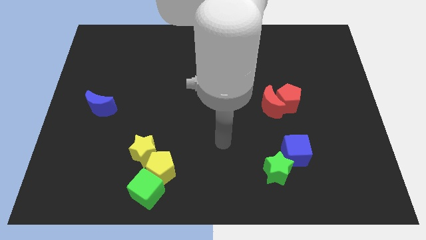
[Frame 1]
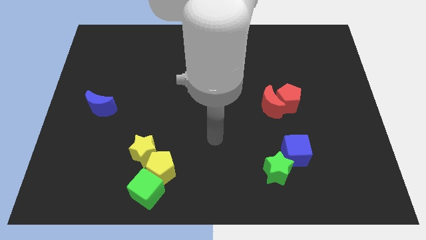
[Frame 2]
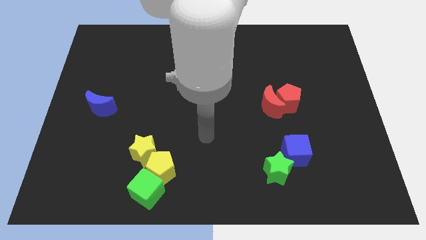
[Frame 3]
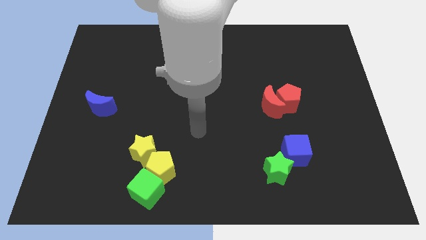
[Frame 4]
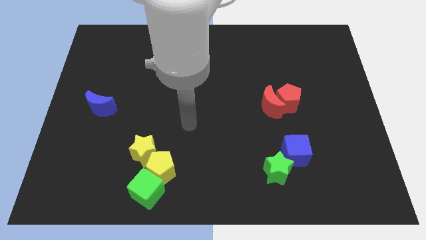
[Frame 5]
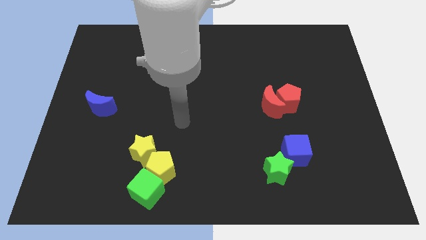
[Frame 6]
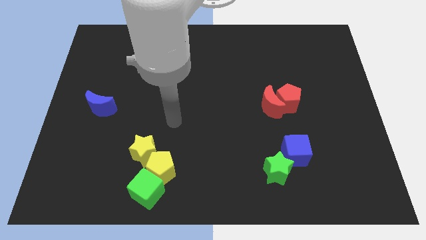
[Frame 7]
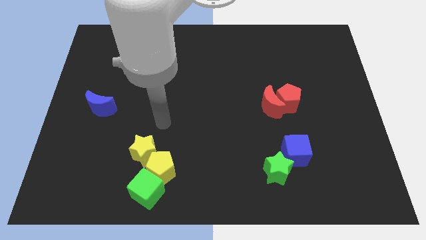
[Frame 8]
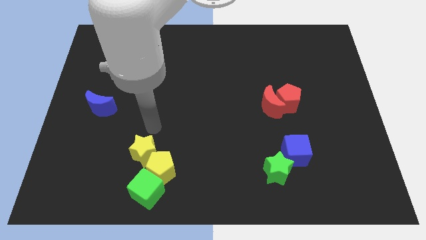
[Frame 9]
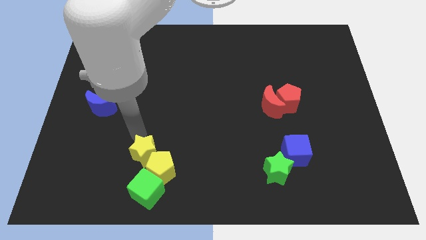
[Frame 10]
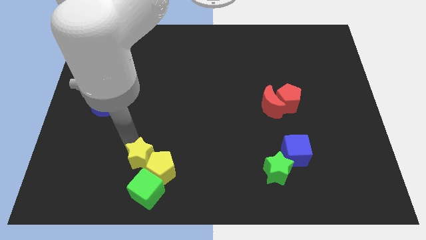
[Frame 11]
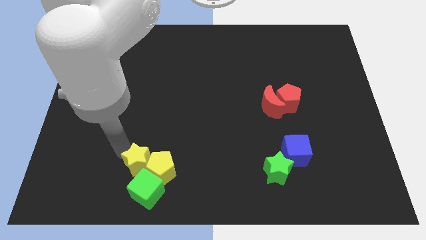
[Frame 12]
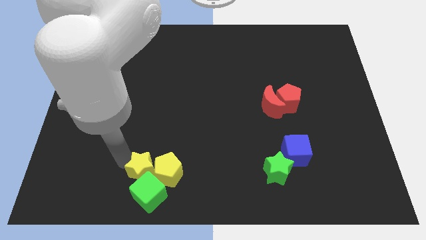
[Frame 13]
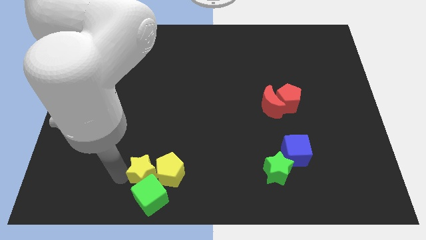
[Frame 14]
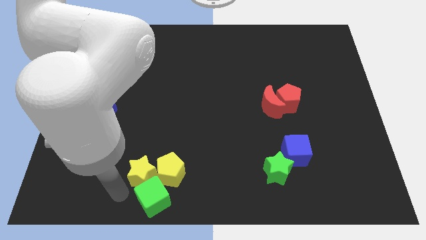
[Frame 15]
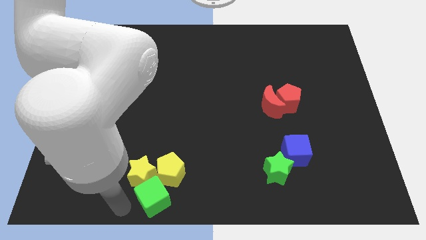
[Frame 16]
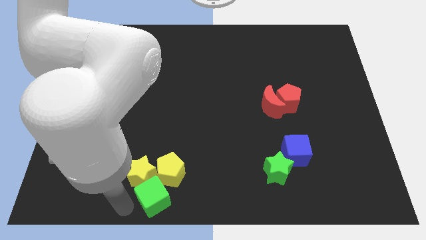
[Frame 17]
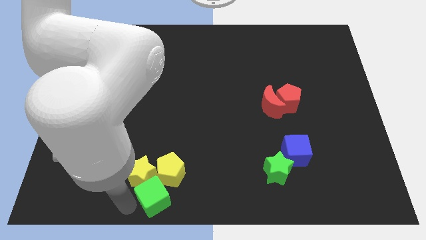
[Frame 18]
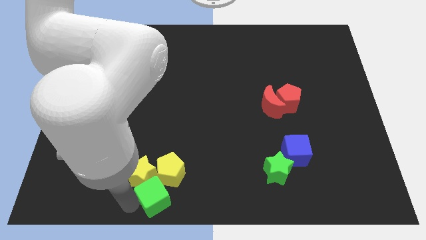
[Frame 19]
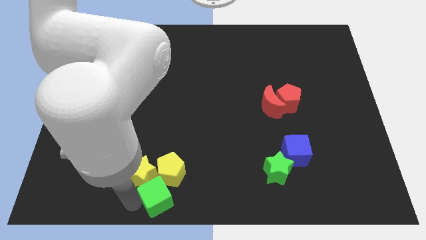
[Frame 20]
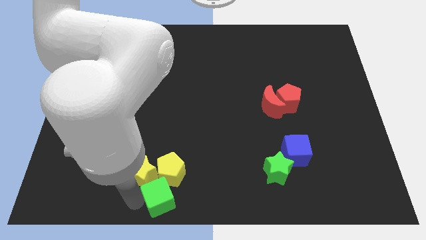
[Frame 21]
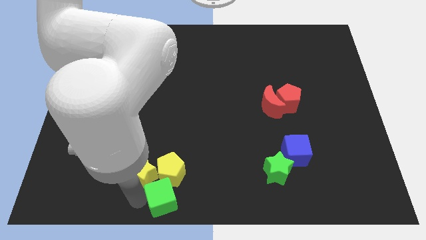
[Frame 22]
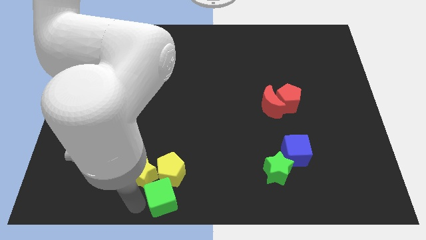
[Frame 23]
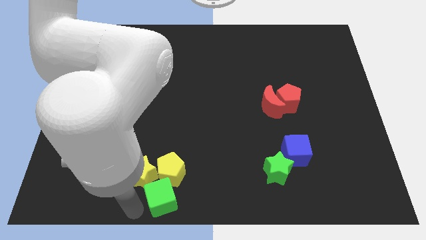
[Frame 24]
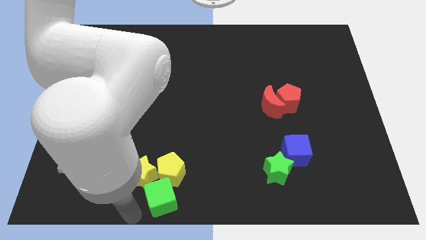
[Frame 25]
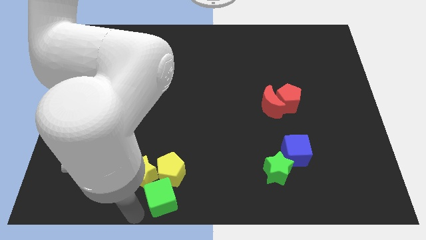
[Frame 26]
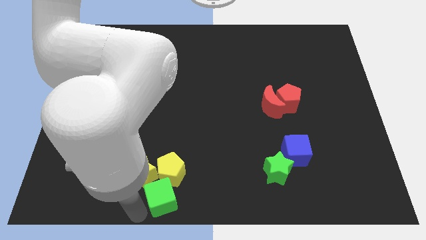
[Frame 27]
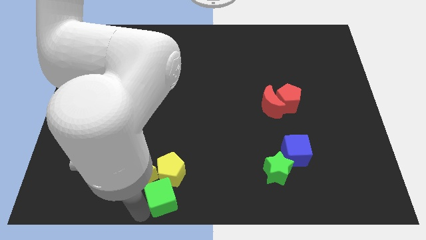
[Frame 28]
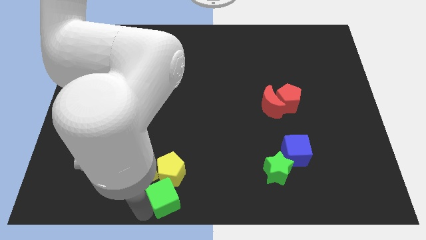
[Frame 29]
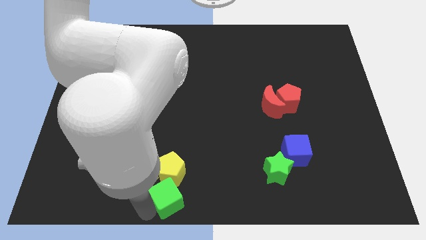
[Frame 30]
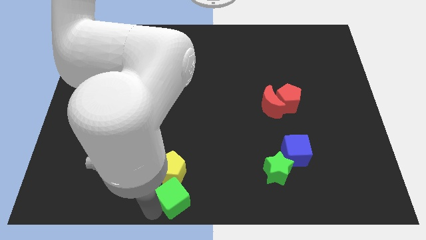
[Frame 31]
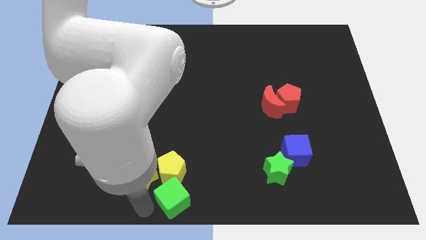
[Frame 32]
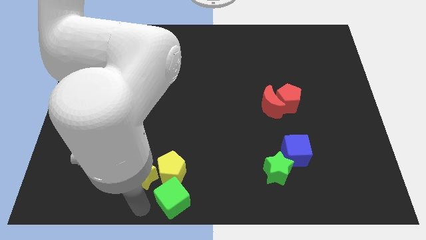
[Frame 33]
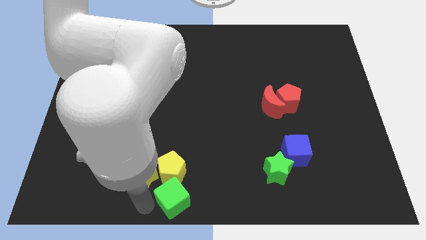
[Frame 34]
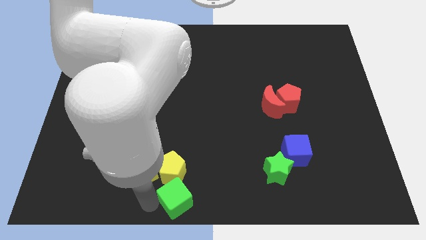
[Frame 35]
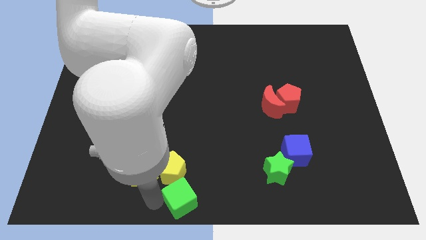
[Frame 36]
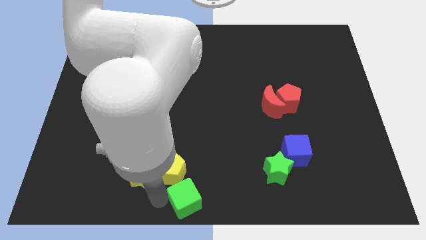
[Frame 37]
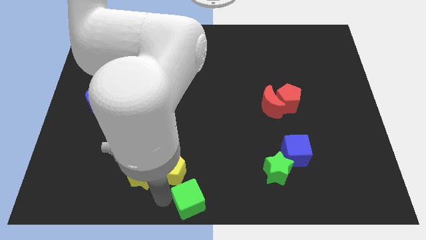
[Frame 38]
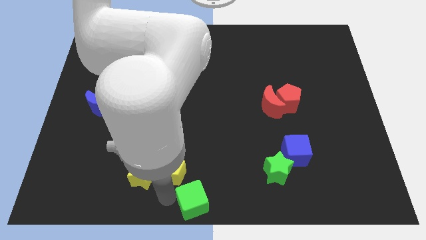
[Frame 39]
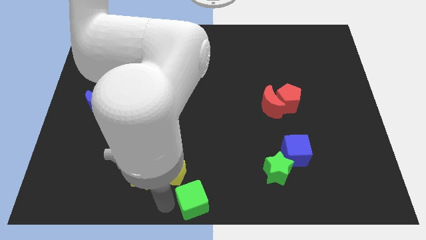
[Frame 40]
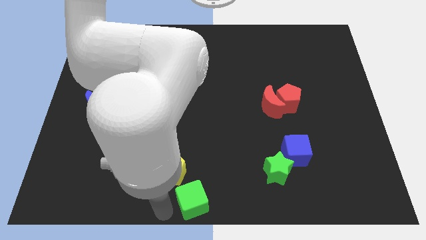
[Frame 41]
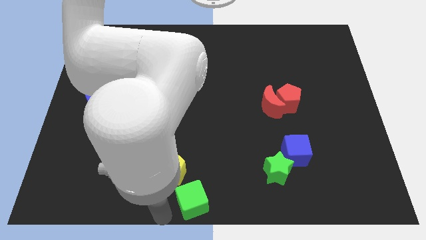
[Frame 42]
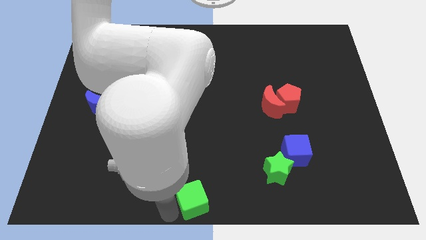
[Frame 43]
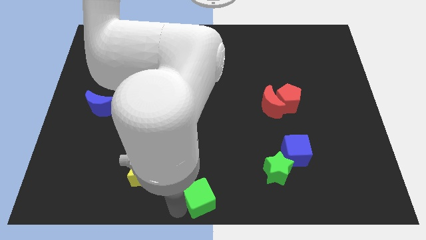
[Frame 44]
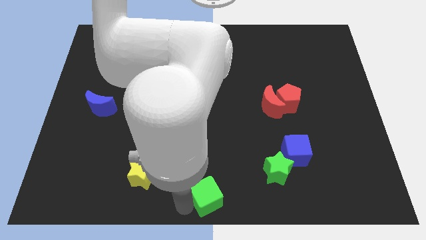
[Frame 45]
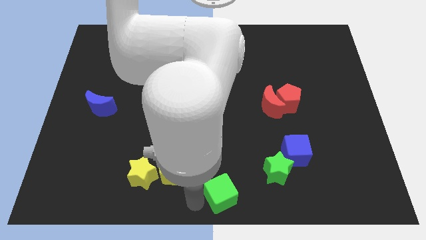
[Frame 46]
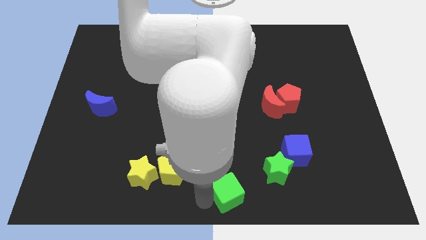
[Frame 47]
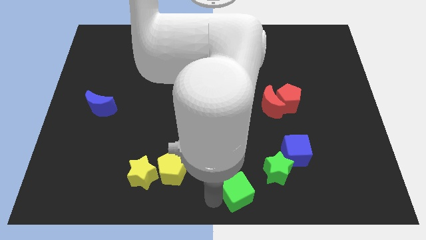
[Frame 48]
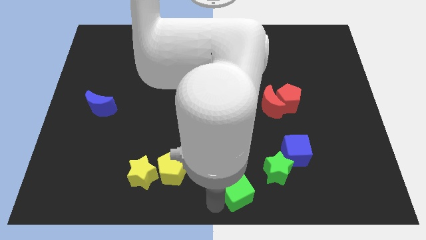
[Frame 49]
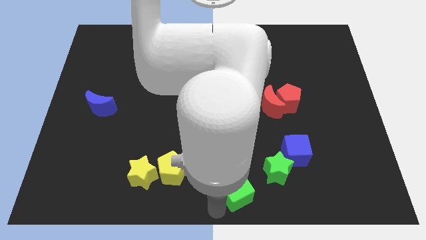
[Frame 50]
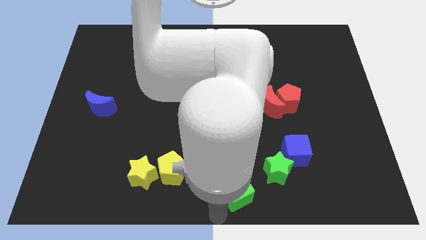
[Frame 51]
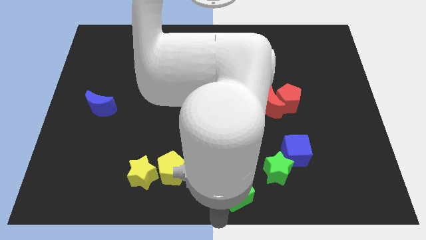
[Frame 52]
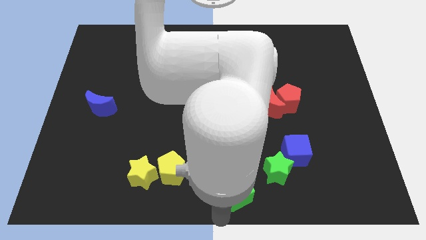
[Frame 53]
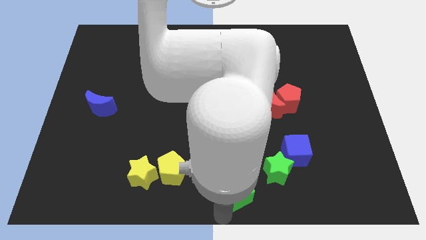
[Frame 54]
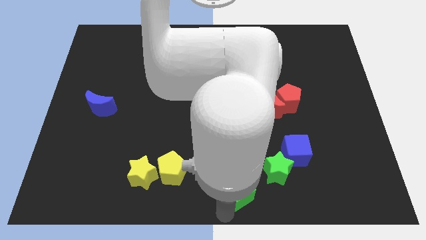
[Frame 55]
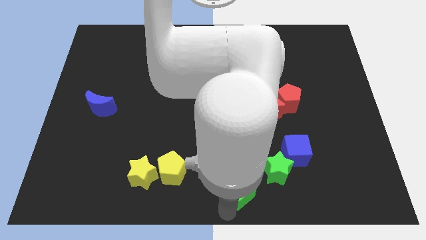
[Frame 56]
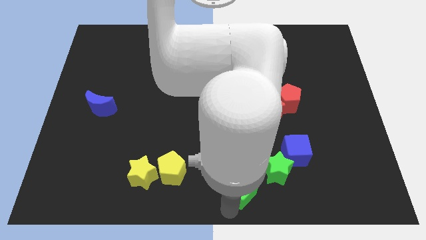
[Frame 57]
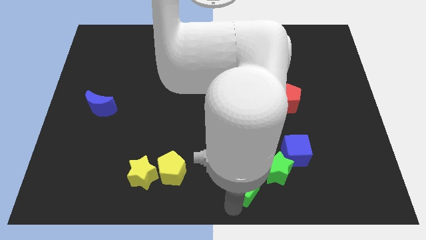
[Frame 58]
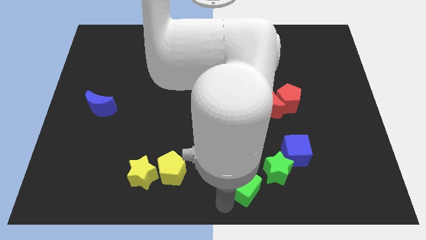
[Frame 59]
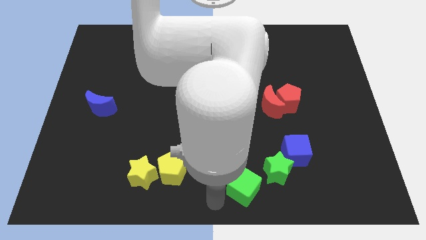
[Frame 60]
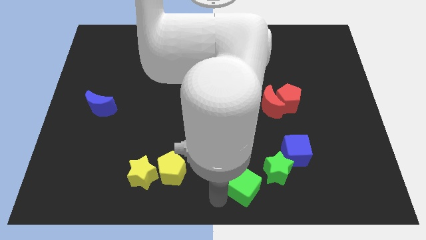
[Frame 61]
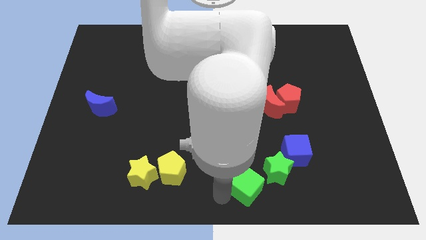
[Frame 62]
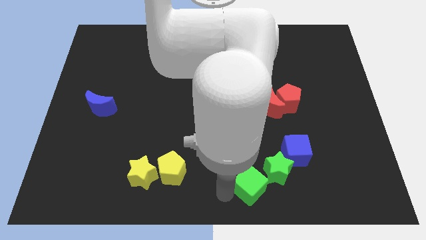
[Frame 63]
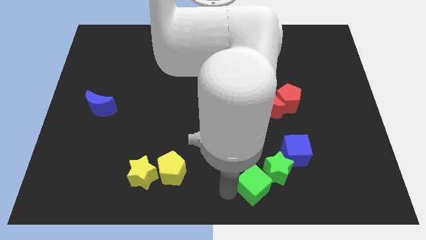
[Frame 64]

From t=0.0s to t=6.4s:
push the green cube to the green star
